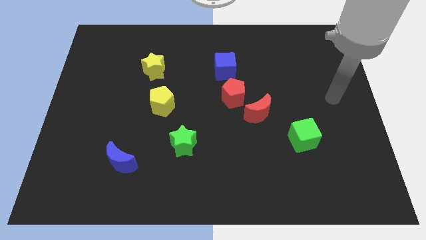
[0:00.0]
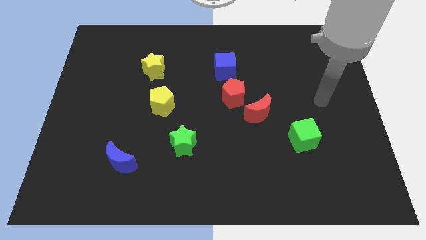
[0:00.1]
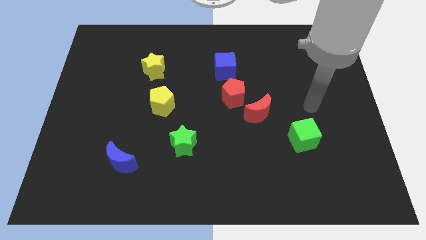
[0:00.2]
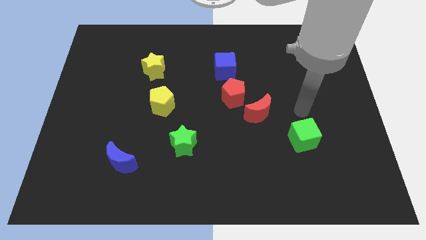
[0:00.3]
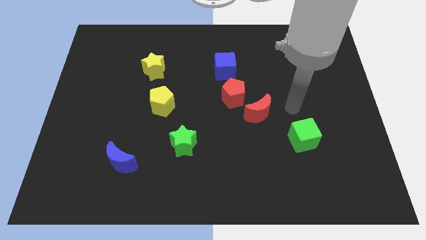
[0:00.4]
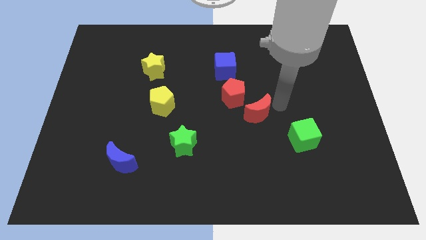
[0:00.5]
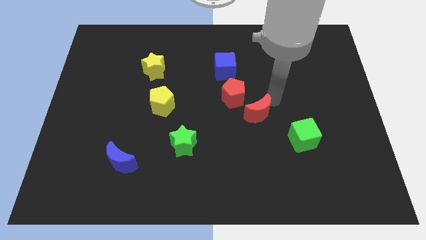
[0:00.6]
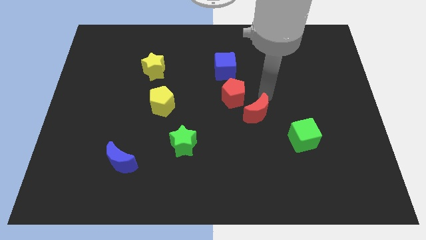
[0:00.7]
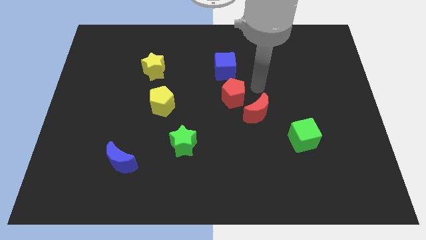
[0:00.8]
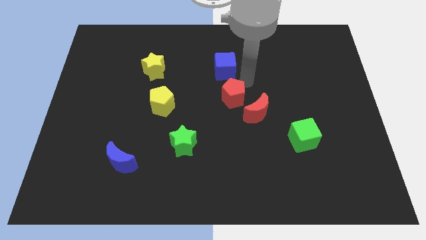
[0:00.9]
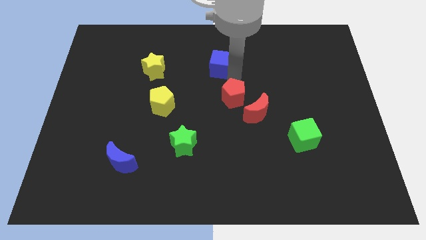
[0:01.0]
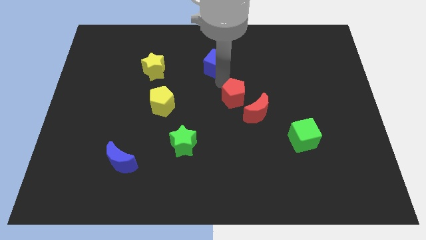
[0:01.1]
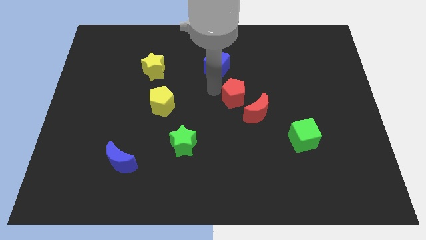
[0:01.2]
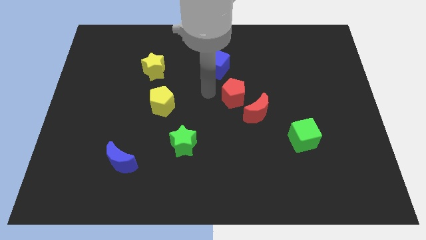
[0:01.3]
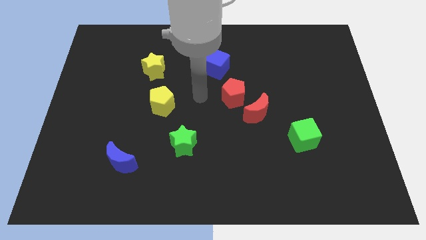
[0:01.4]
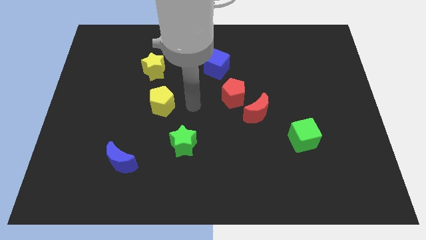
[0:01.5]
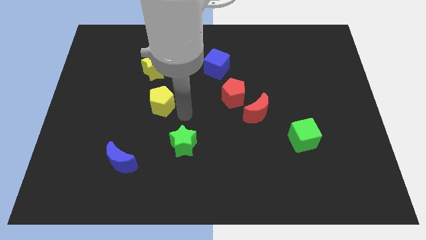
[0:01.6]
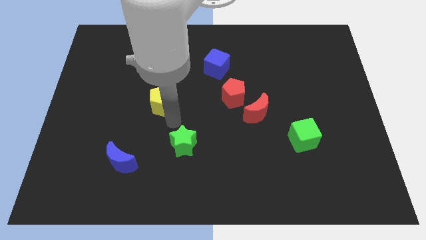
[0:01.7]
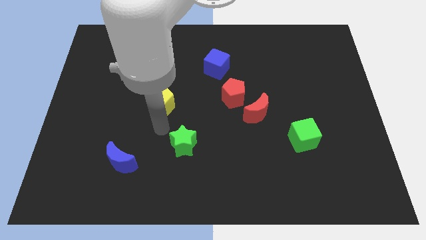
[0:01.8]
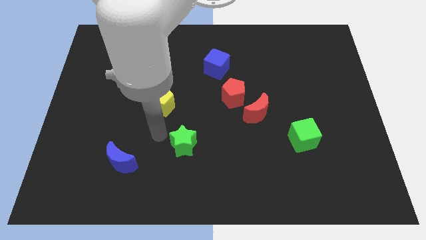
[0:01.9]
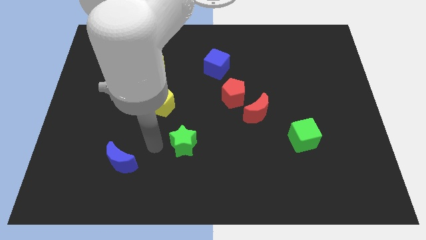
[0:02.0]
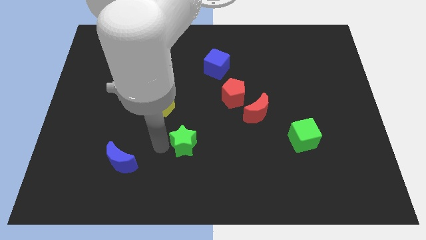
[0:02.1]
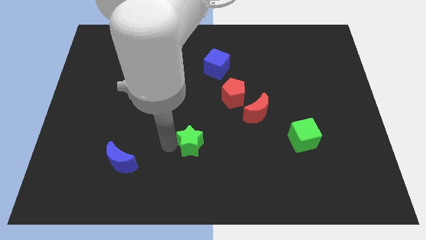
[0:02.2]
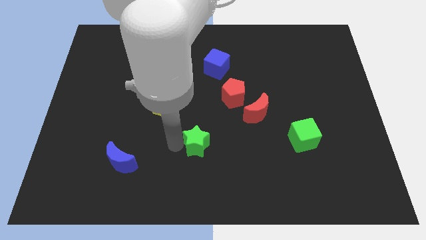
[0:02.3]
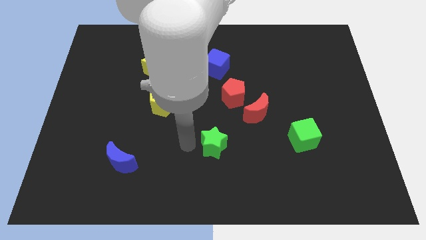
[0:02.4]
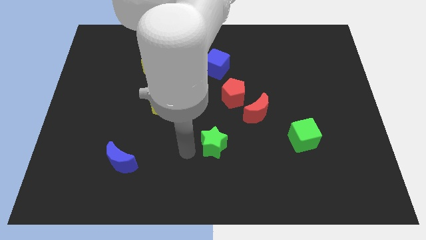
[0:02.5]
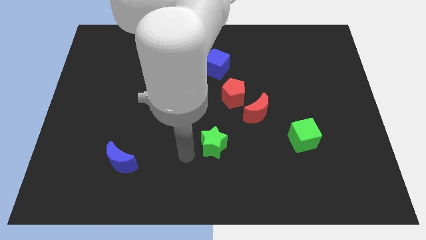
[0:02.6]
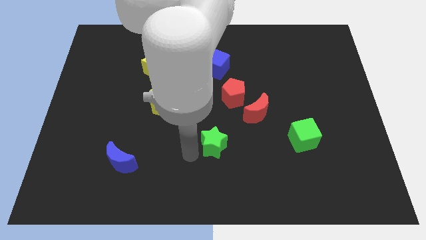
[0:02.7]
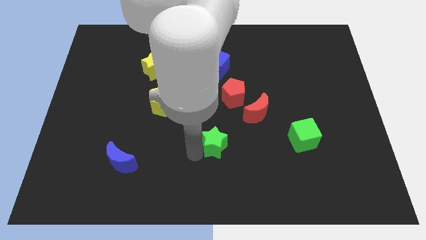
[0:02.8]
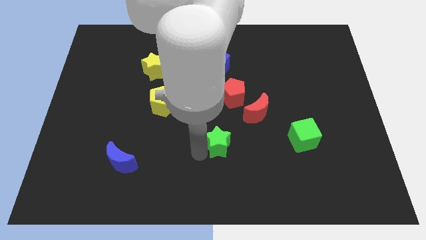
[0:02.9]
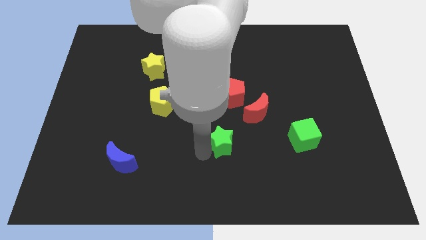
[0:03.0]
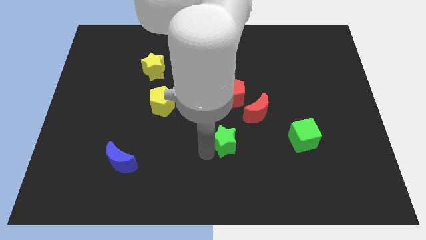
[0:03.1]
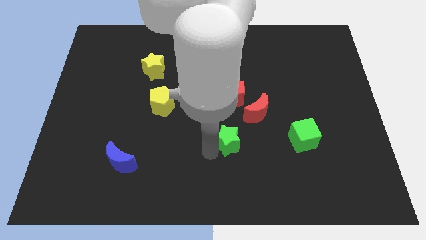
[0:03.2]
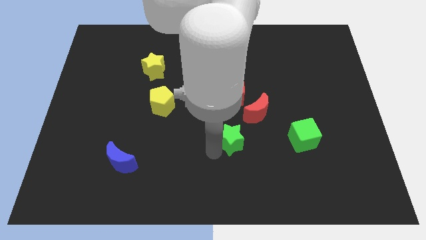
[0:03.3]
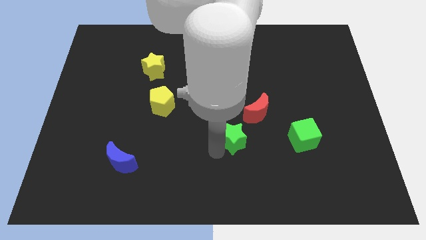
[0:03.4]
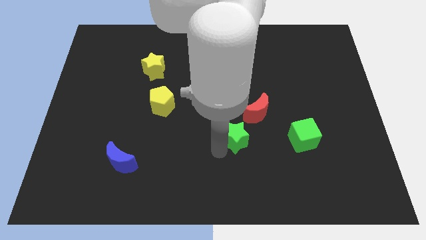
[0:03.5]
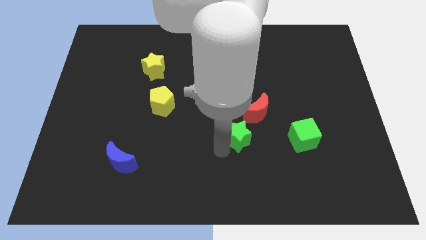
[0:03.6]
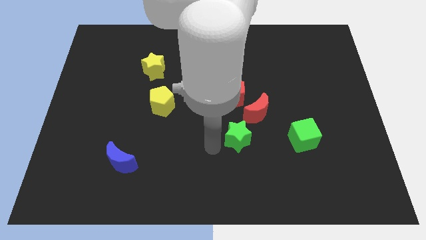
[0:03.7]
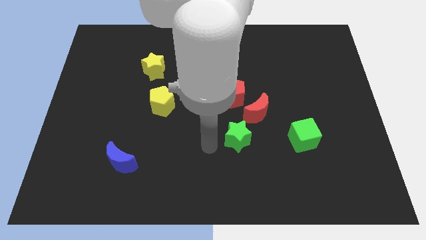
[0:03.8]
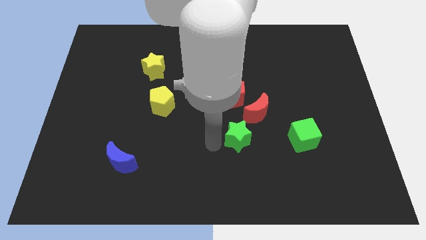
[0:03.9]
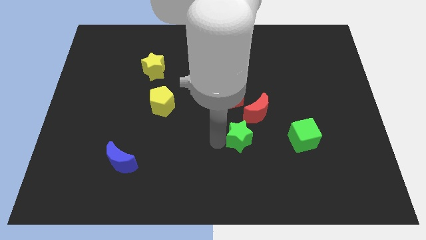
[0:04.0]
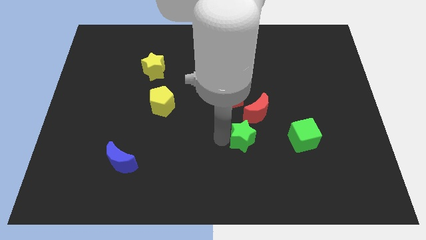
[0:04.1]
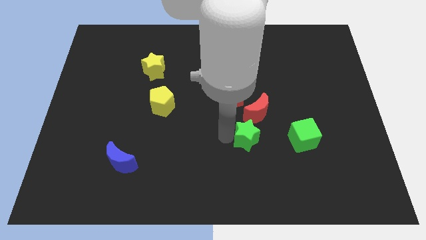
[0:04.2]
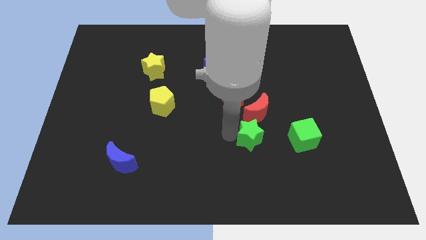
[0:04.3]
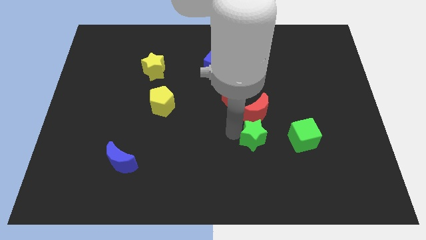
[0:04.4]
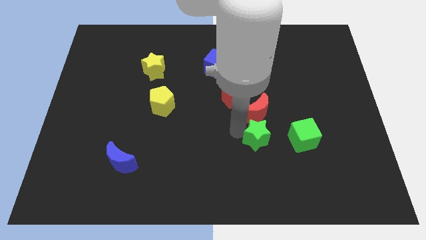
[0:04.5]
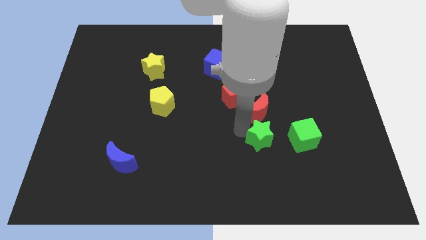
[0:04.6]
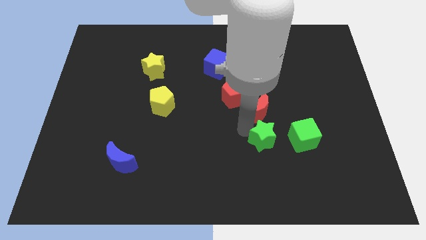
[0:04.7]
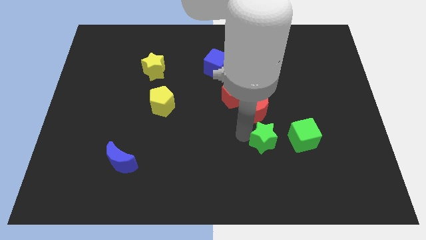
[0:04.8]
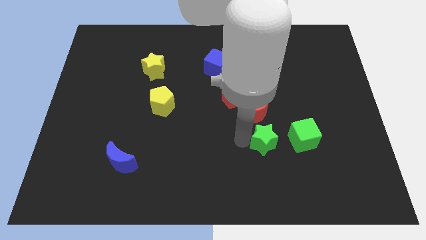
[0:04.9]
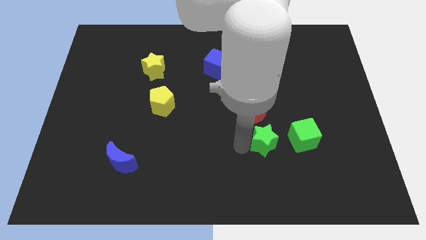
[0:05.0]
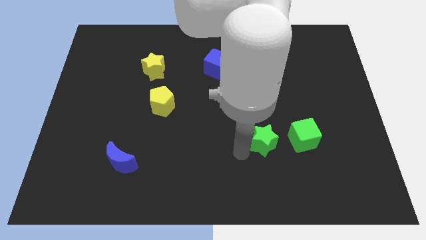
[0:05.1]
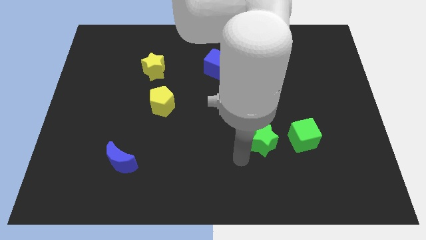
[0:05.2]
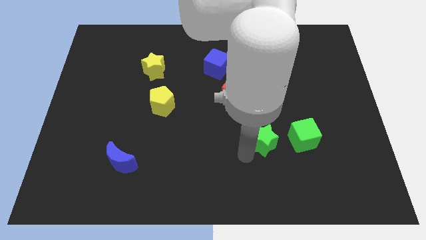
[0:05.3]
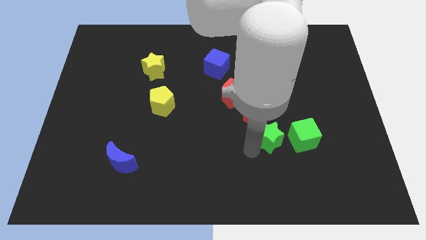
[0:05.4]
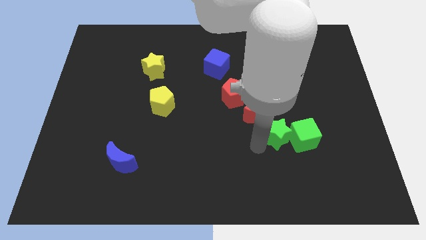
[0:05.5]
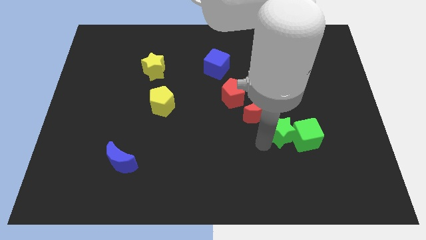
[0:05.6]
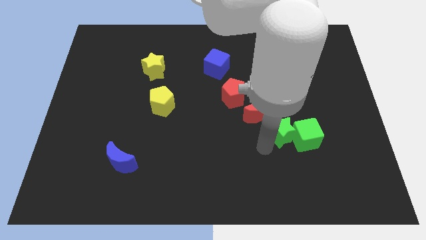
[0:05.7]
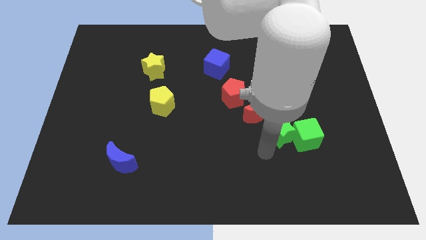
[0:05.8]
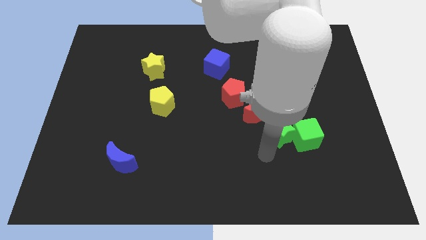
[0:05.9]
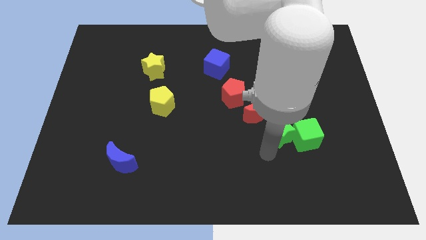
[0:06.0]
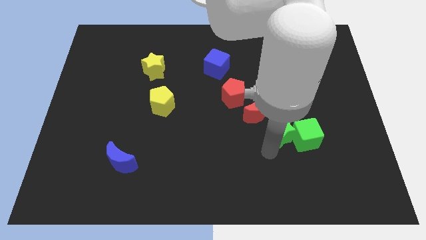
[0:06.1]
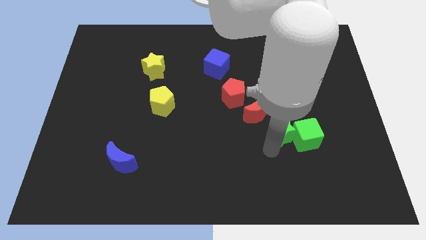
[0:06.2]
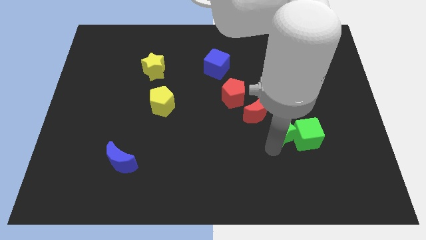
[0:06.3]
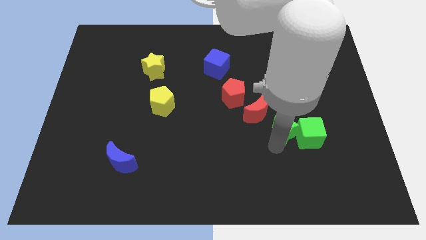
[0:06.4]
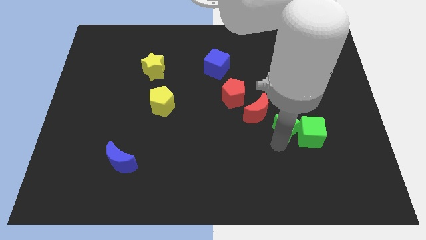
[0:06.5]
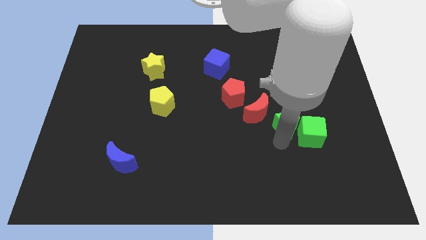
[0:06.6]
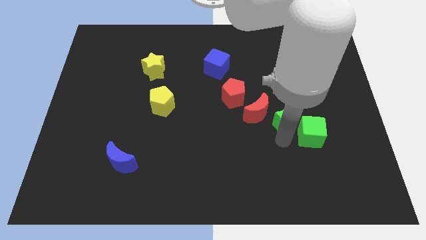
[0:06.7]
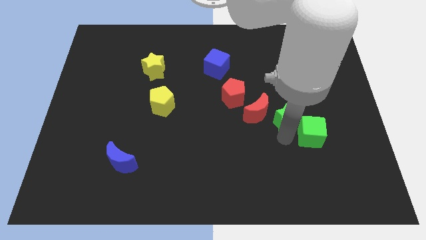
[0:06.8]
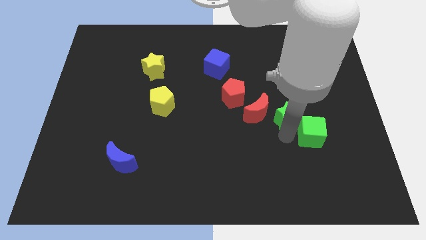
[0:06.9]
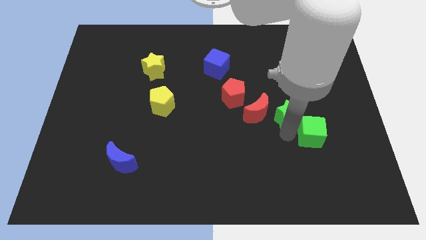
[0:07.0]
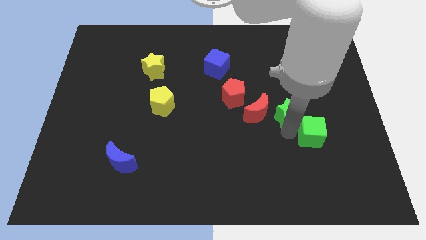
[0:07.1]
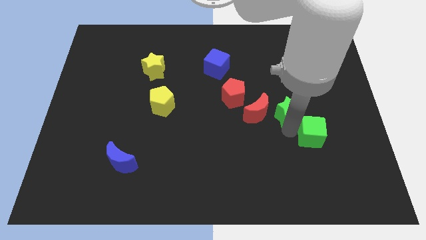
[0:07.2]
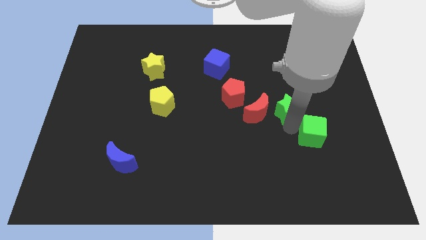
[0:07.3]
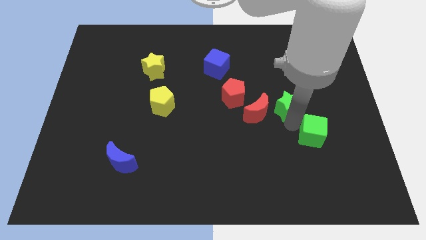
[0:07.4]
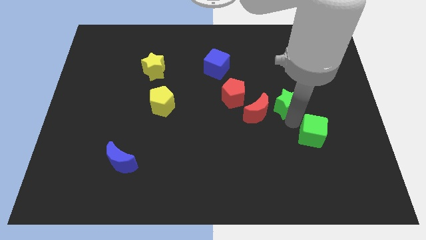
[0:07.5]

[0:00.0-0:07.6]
push the green star up and right

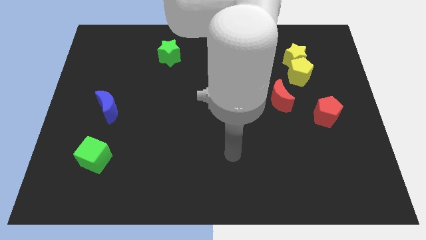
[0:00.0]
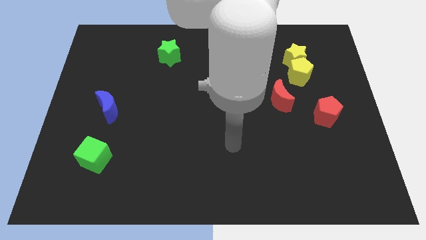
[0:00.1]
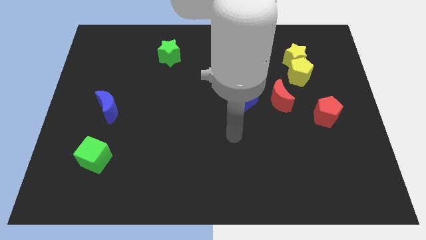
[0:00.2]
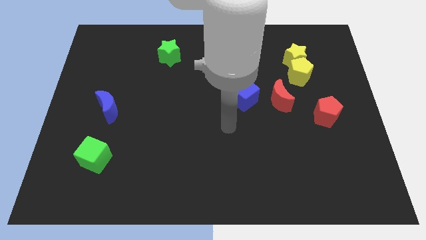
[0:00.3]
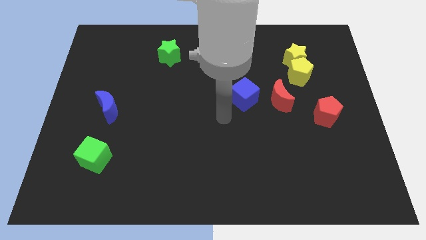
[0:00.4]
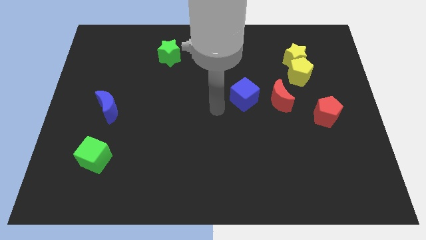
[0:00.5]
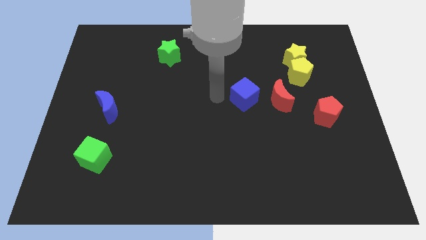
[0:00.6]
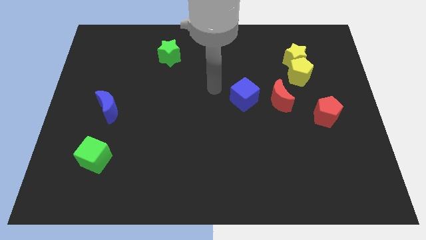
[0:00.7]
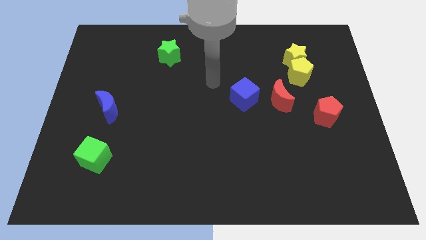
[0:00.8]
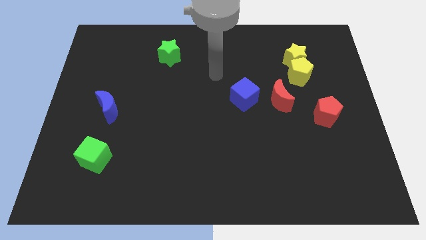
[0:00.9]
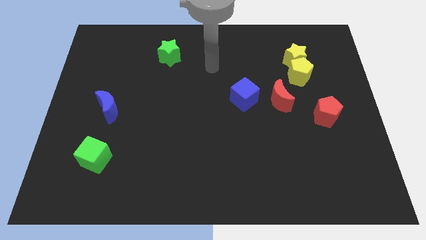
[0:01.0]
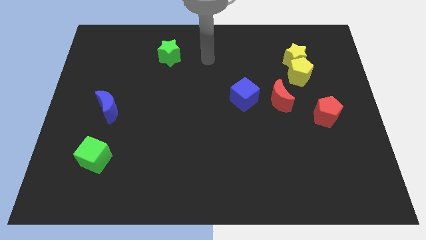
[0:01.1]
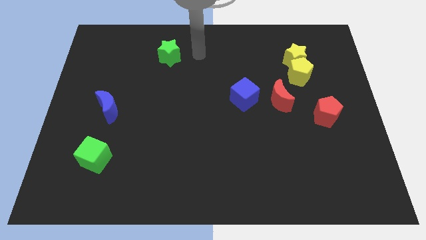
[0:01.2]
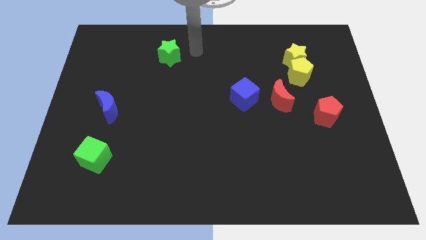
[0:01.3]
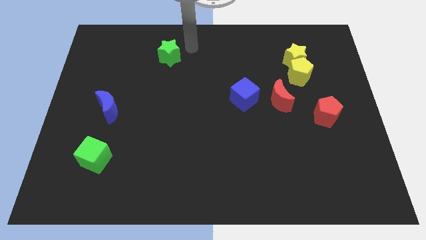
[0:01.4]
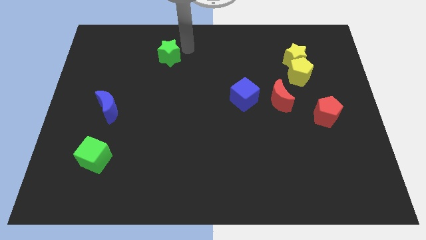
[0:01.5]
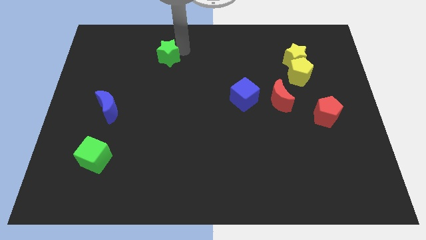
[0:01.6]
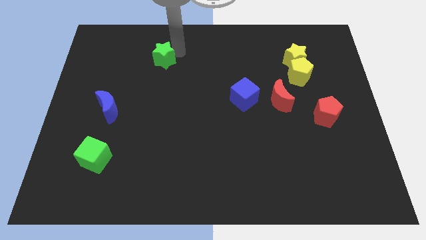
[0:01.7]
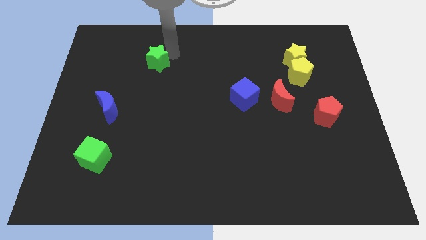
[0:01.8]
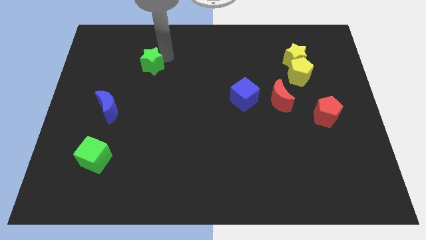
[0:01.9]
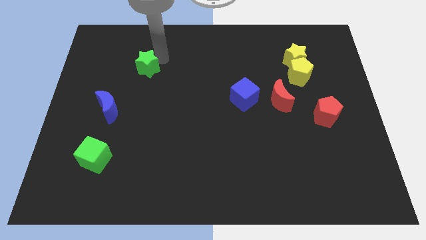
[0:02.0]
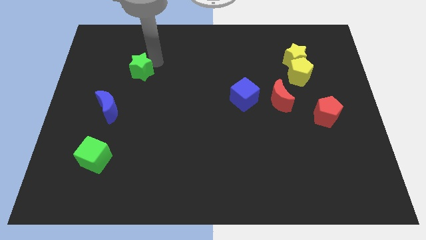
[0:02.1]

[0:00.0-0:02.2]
move the green star diagonally down and to the left a little bit
